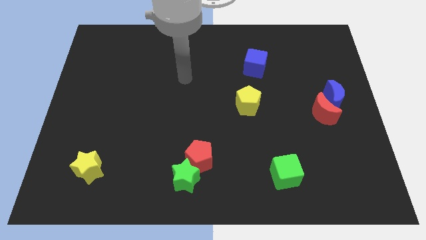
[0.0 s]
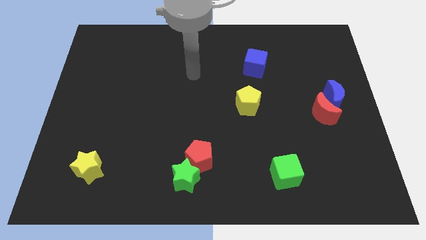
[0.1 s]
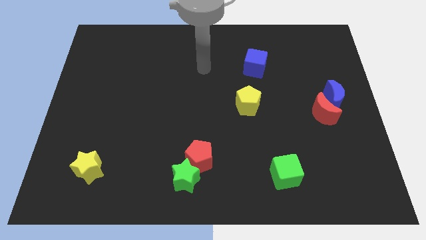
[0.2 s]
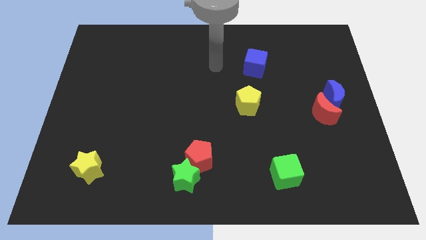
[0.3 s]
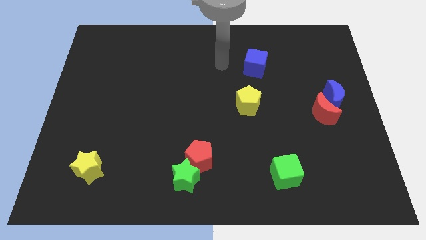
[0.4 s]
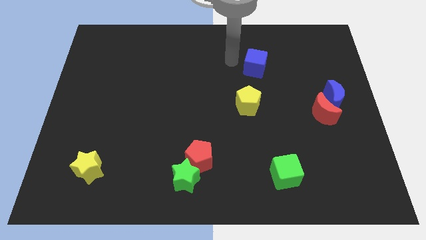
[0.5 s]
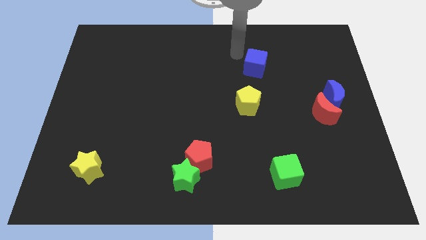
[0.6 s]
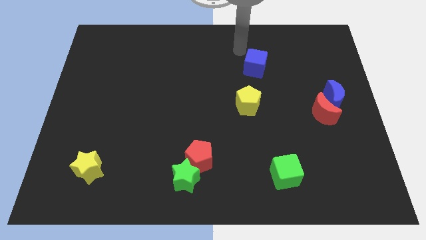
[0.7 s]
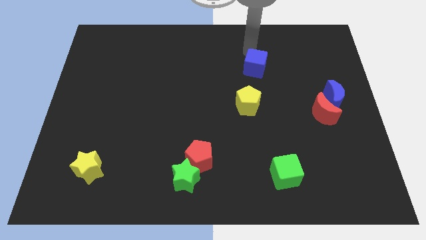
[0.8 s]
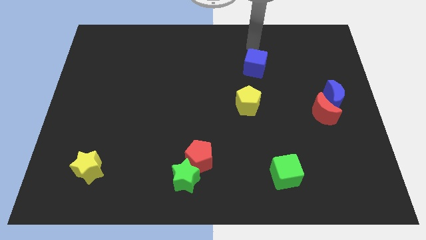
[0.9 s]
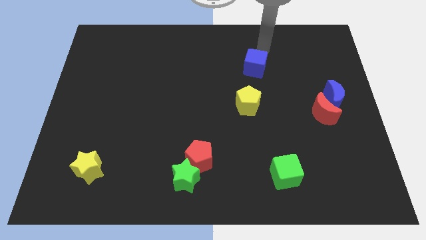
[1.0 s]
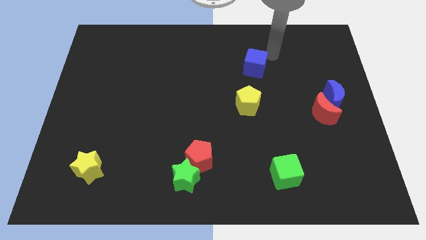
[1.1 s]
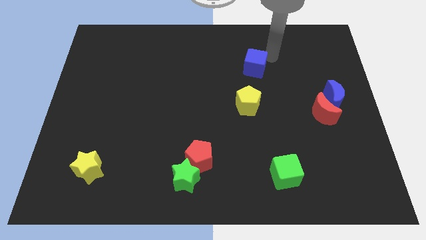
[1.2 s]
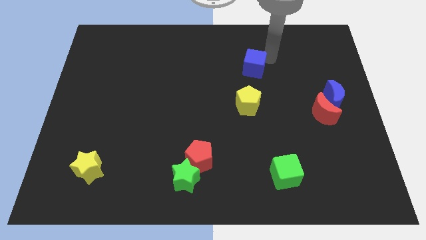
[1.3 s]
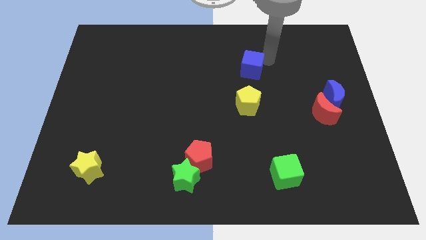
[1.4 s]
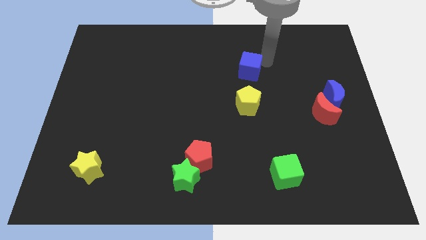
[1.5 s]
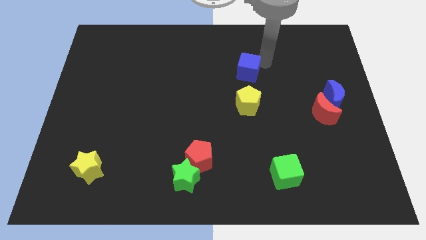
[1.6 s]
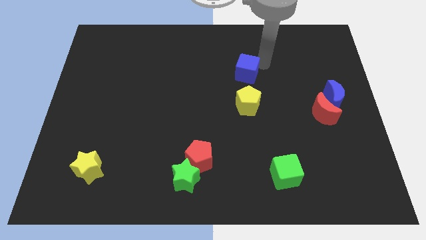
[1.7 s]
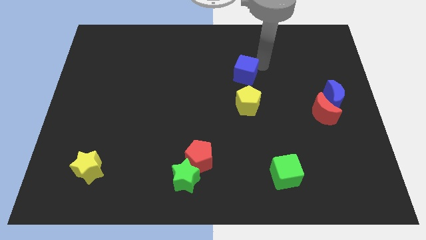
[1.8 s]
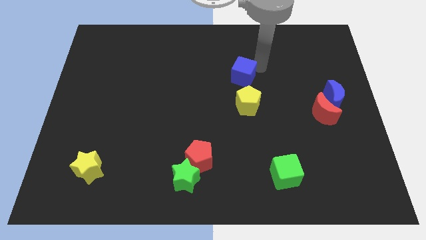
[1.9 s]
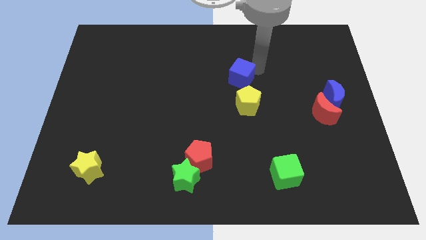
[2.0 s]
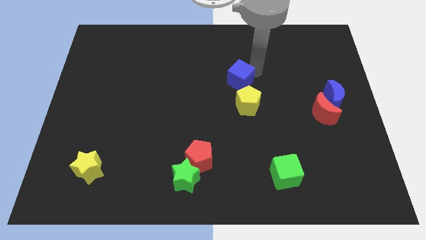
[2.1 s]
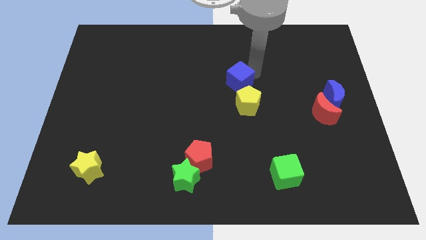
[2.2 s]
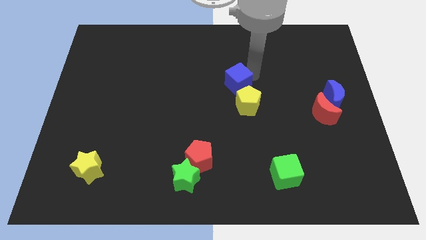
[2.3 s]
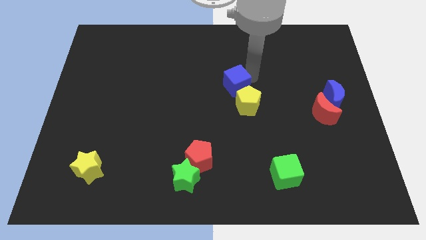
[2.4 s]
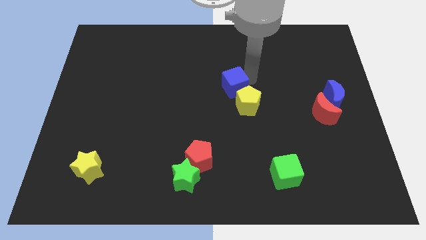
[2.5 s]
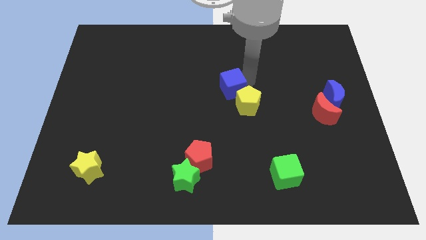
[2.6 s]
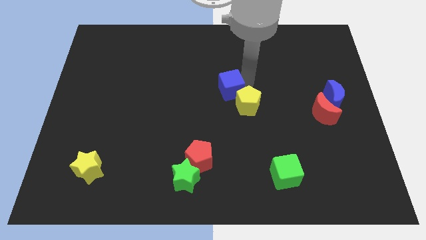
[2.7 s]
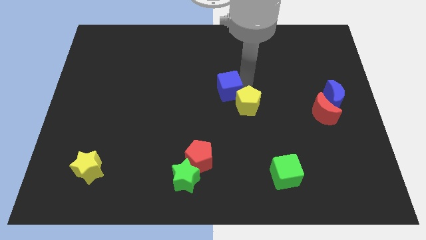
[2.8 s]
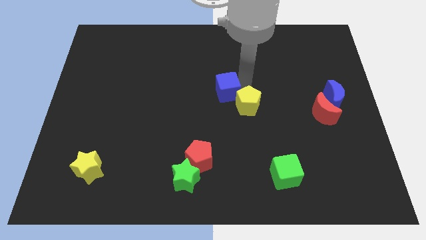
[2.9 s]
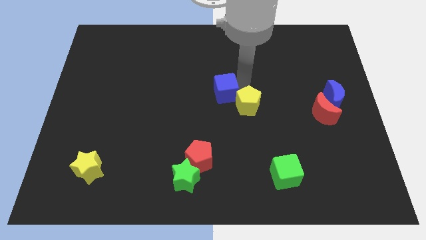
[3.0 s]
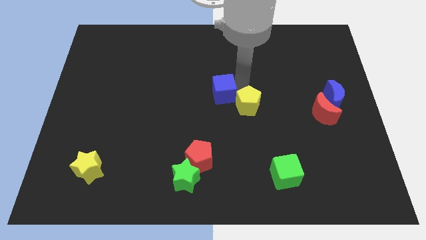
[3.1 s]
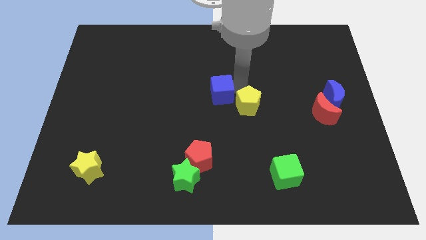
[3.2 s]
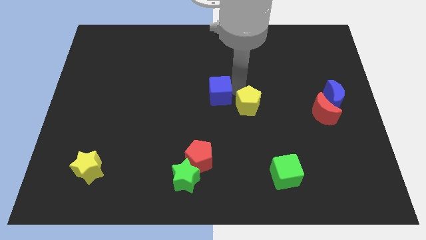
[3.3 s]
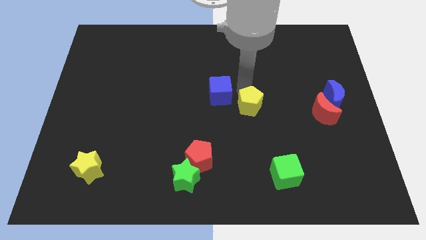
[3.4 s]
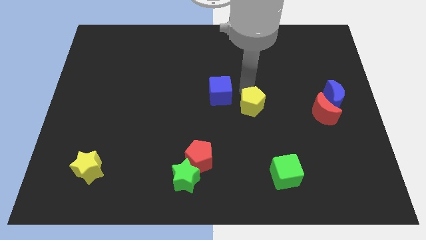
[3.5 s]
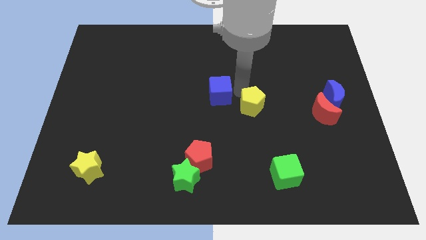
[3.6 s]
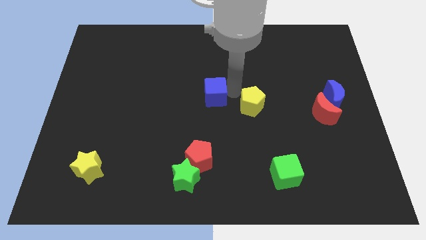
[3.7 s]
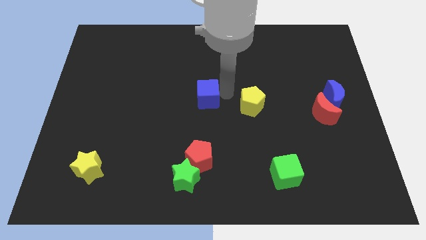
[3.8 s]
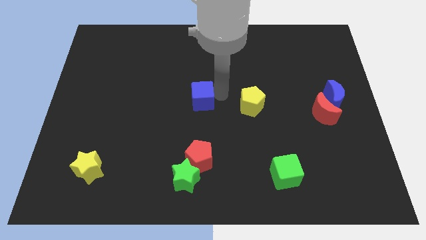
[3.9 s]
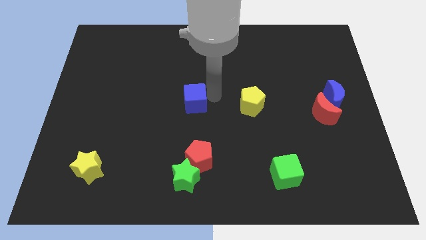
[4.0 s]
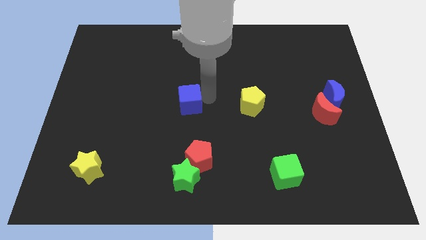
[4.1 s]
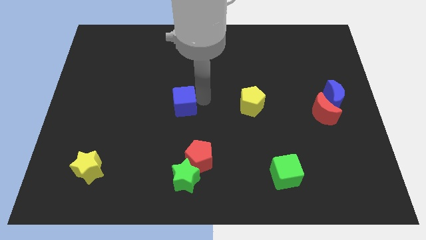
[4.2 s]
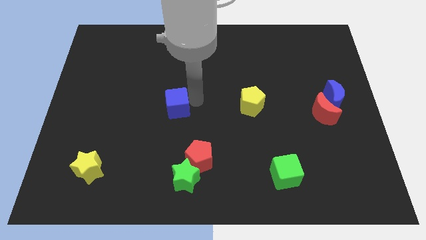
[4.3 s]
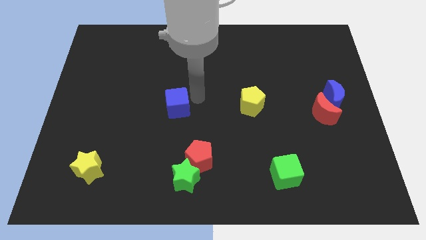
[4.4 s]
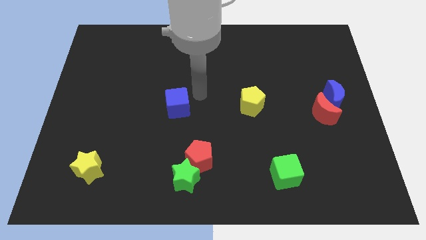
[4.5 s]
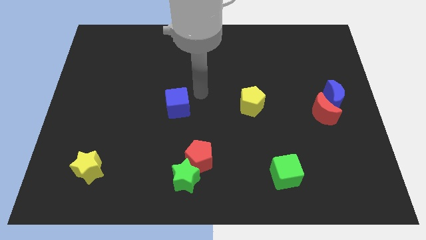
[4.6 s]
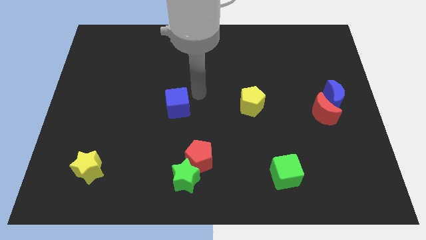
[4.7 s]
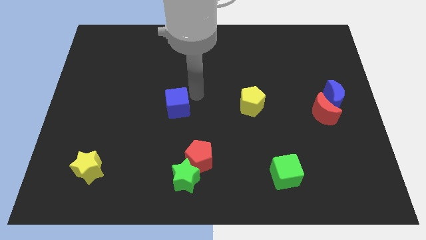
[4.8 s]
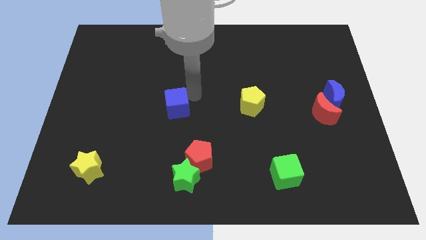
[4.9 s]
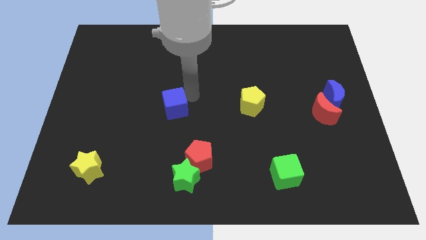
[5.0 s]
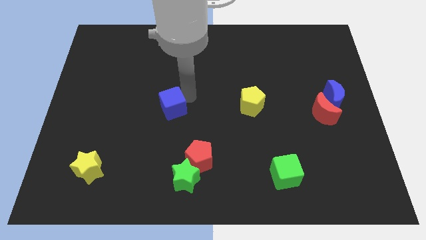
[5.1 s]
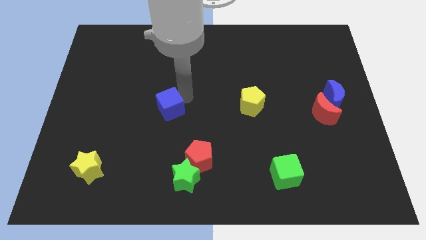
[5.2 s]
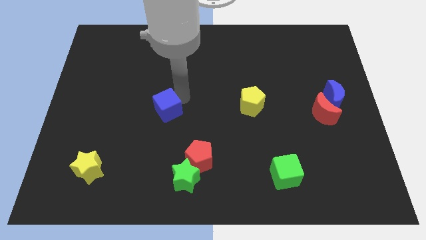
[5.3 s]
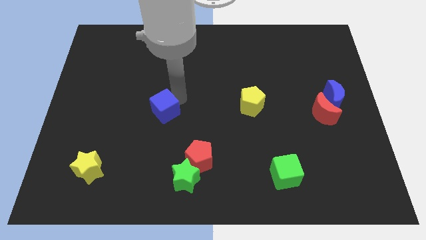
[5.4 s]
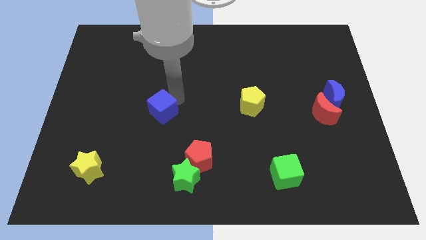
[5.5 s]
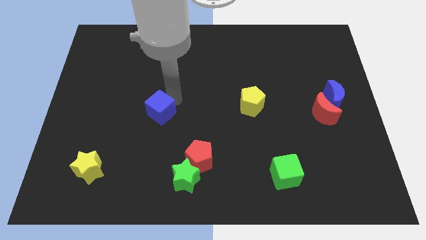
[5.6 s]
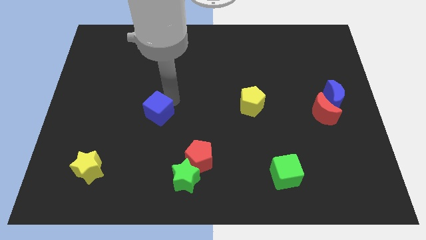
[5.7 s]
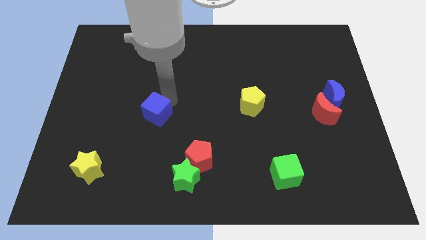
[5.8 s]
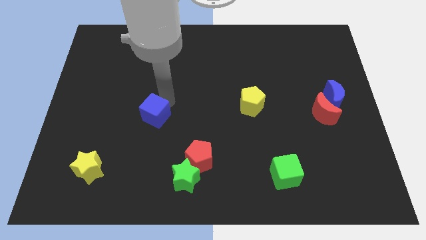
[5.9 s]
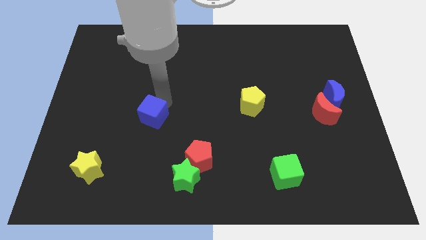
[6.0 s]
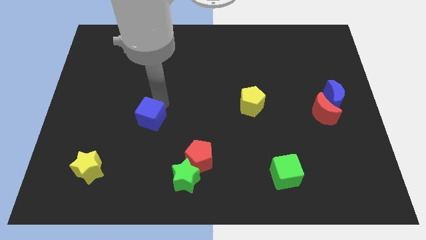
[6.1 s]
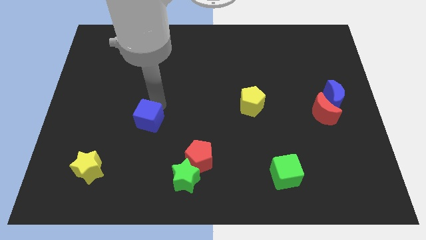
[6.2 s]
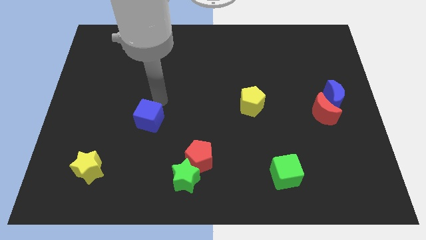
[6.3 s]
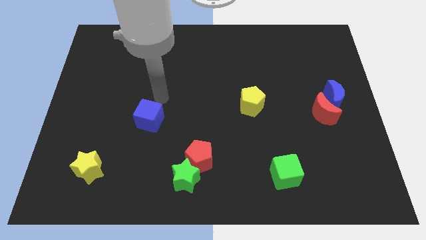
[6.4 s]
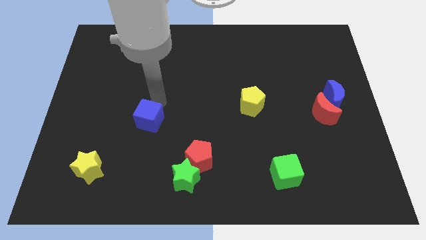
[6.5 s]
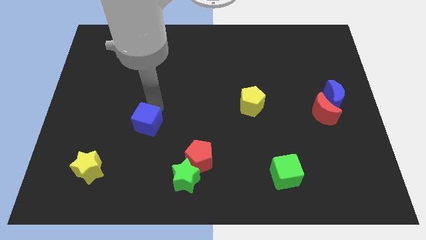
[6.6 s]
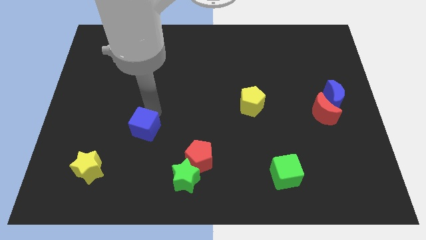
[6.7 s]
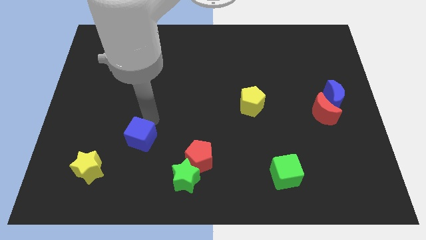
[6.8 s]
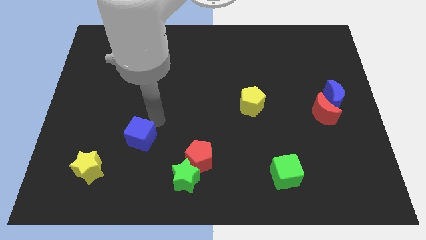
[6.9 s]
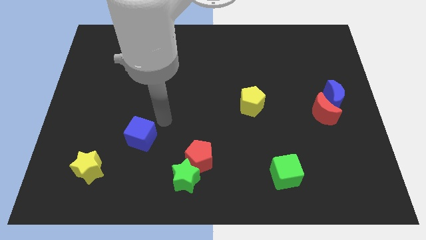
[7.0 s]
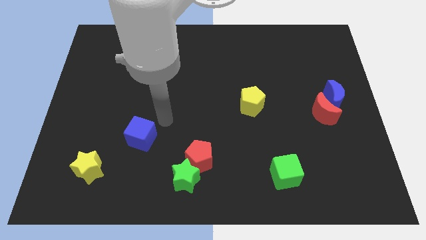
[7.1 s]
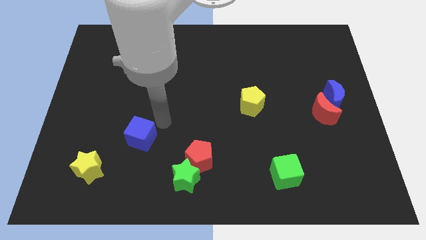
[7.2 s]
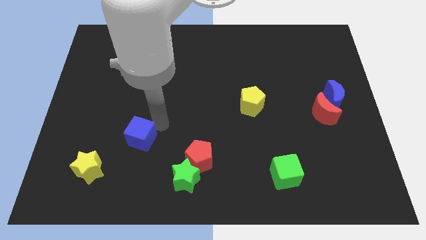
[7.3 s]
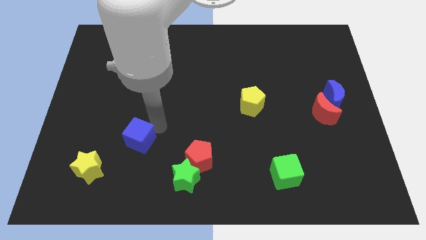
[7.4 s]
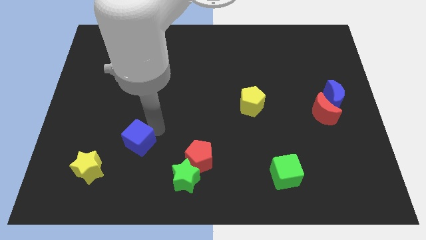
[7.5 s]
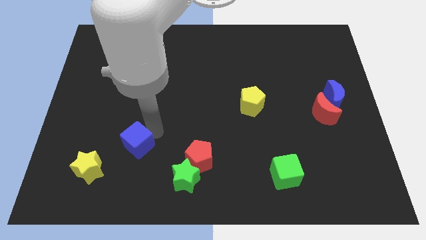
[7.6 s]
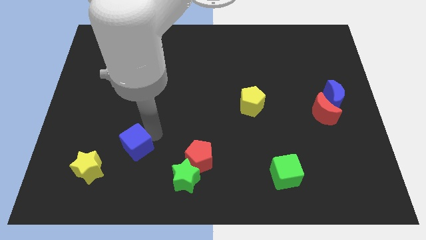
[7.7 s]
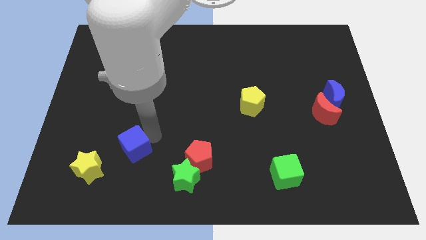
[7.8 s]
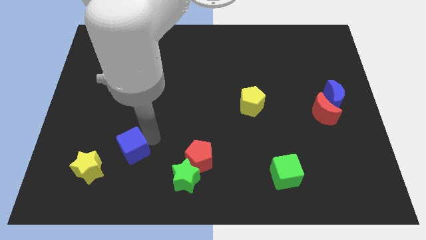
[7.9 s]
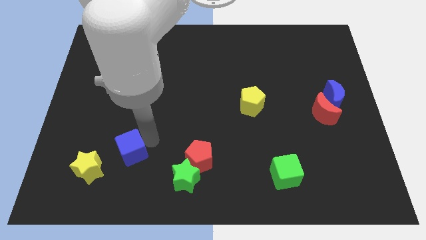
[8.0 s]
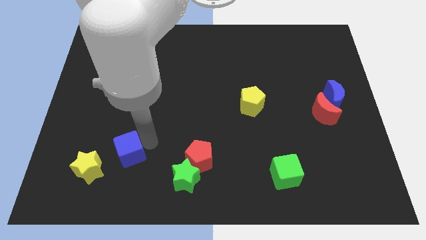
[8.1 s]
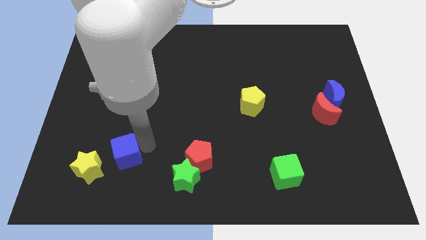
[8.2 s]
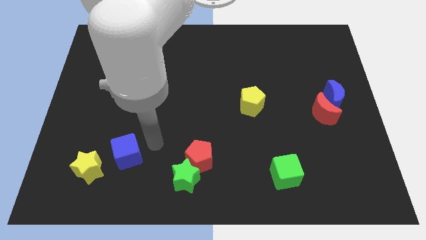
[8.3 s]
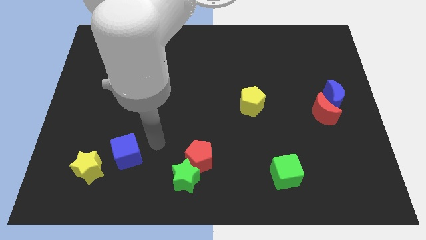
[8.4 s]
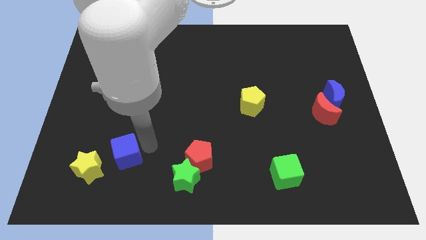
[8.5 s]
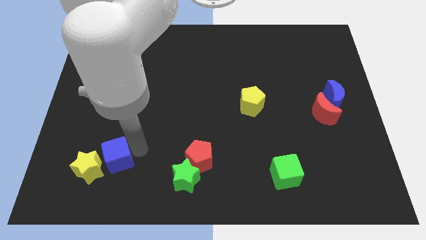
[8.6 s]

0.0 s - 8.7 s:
push the blue cube next to the yellow star
